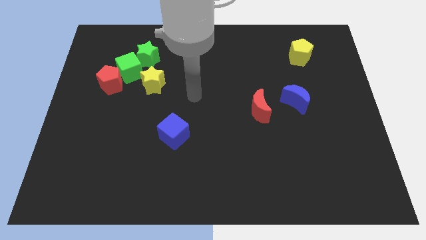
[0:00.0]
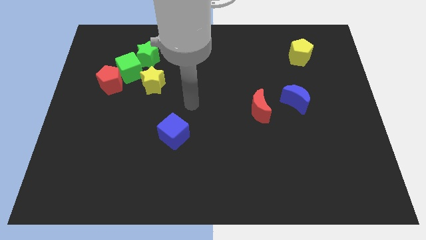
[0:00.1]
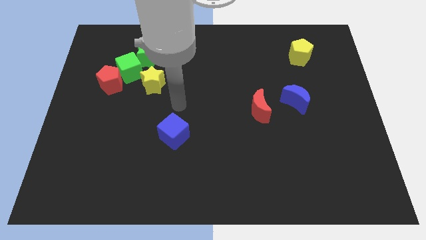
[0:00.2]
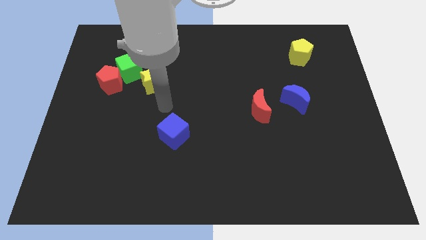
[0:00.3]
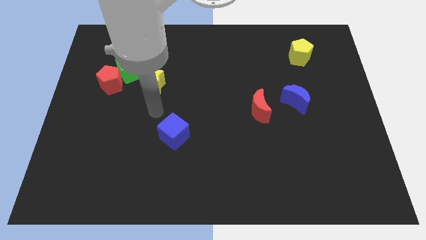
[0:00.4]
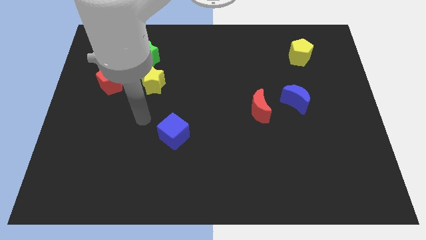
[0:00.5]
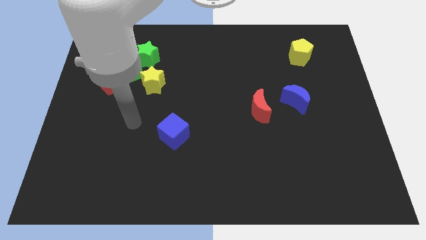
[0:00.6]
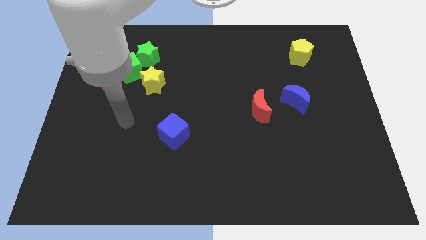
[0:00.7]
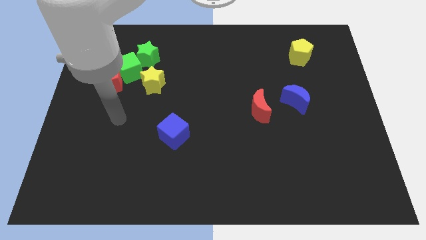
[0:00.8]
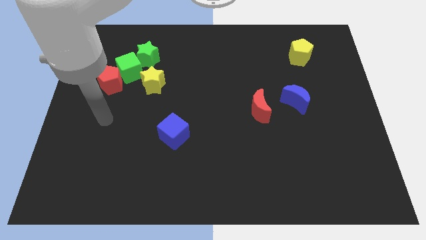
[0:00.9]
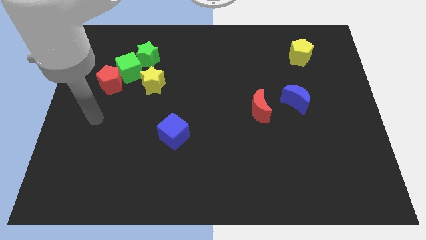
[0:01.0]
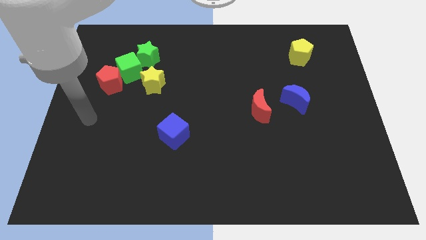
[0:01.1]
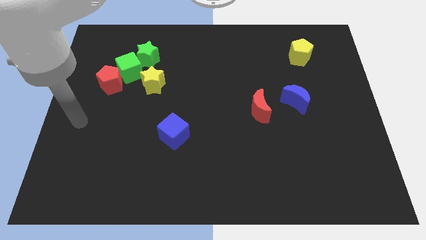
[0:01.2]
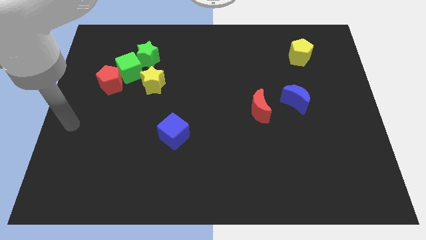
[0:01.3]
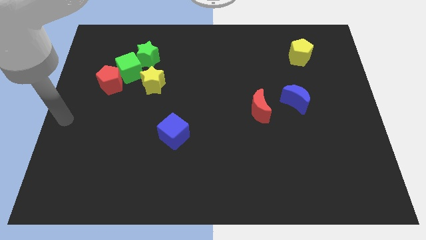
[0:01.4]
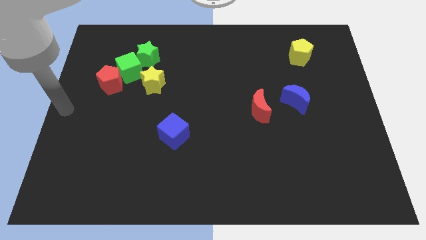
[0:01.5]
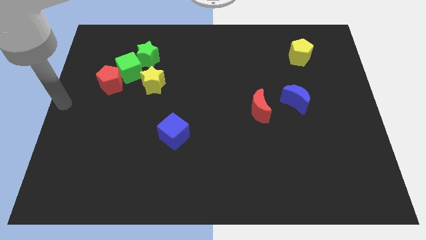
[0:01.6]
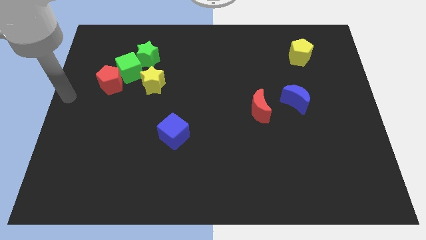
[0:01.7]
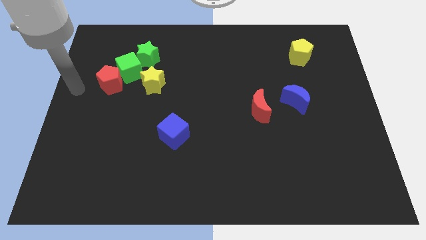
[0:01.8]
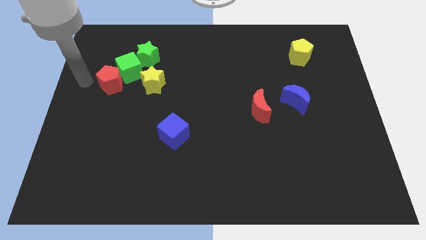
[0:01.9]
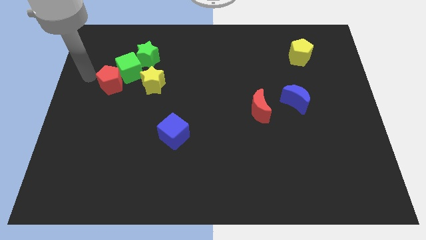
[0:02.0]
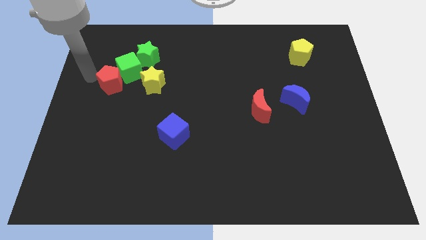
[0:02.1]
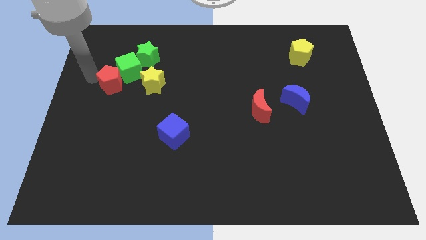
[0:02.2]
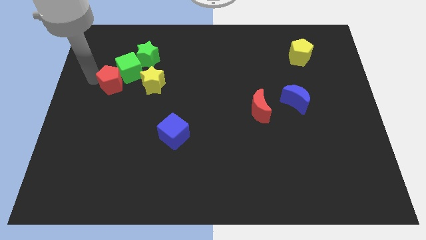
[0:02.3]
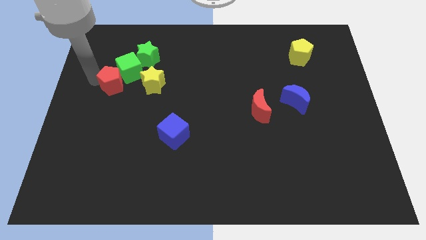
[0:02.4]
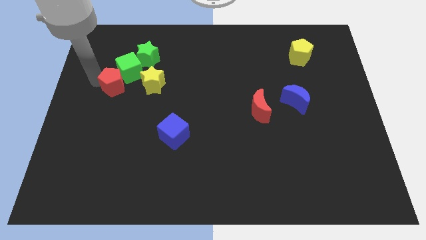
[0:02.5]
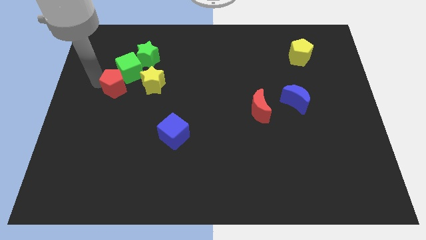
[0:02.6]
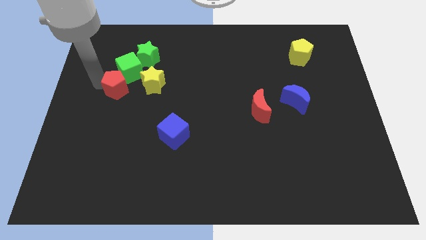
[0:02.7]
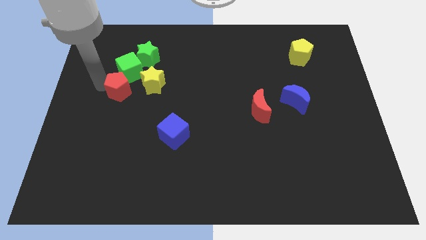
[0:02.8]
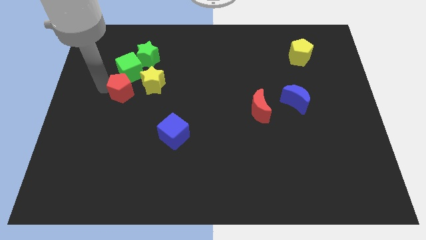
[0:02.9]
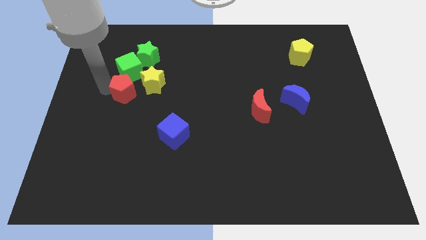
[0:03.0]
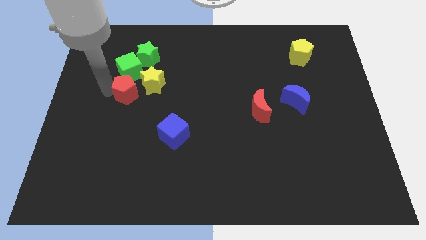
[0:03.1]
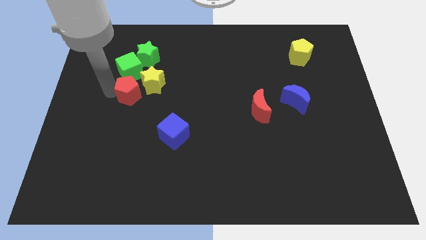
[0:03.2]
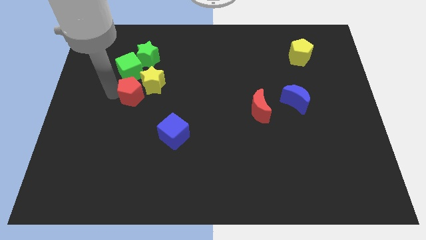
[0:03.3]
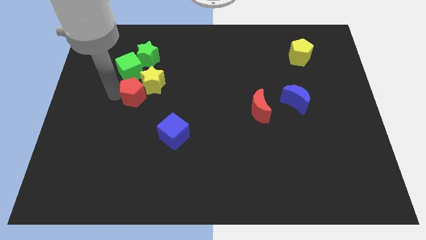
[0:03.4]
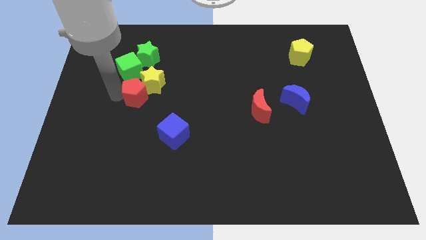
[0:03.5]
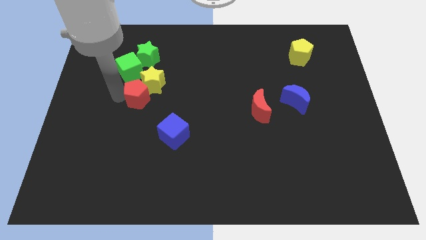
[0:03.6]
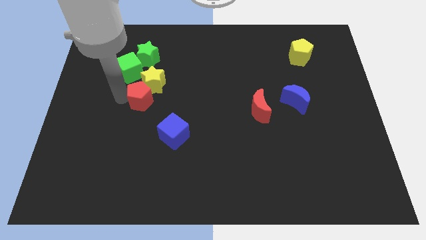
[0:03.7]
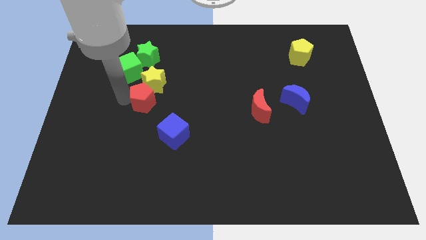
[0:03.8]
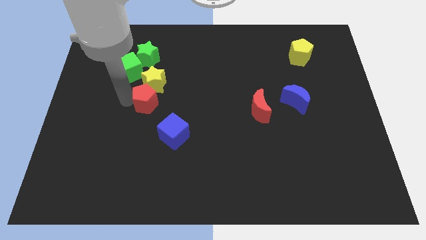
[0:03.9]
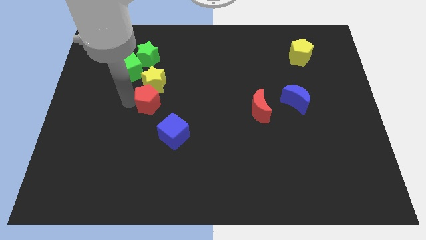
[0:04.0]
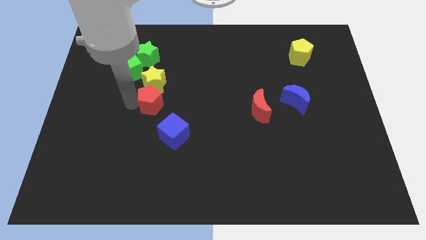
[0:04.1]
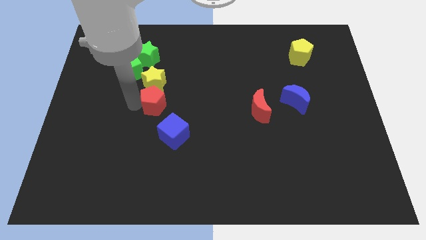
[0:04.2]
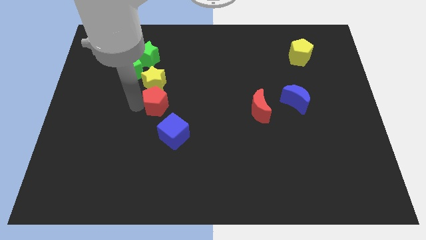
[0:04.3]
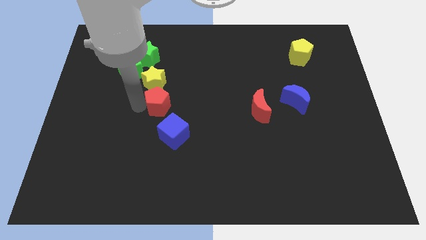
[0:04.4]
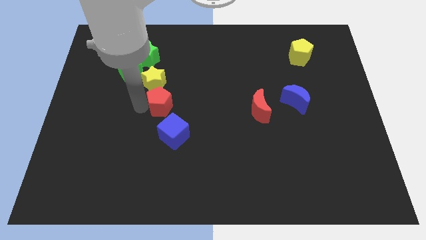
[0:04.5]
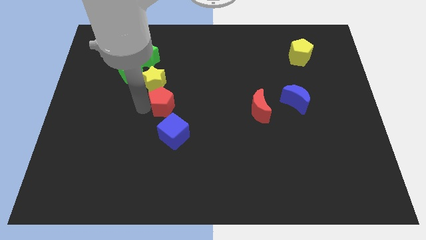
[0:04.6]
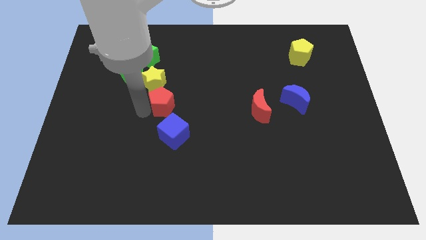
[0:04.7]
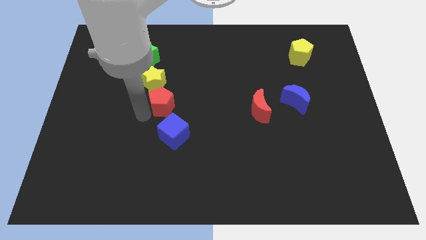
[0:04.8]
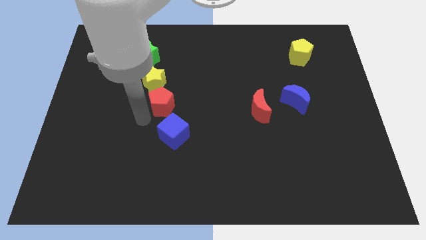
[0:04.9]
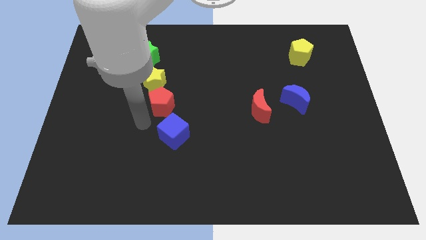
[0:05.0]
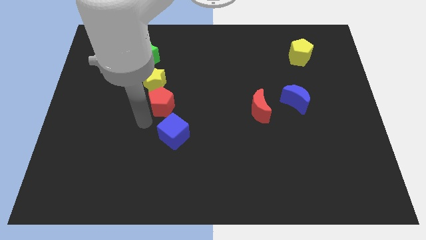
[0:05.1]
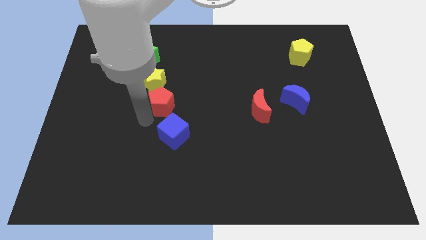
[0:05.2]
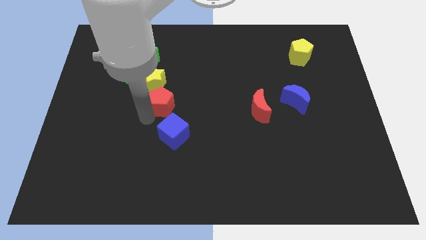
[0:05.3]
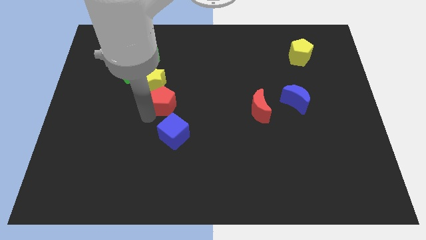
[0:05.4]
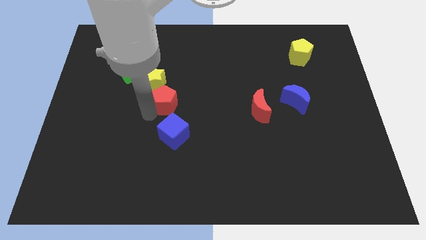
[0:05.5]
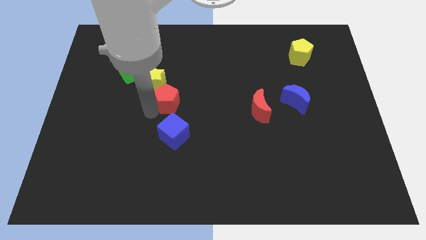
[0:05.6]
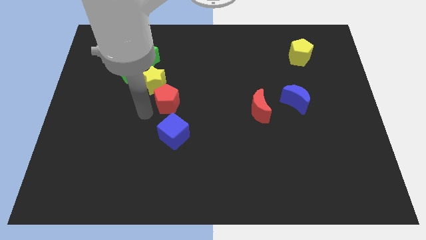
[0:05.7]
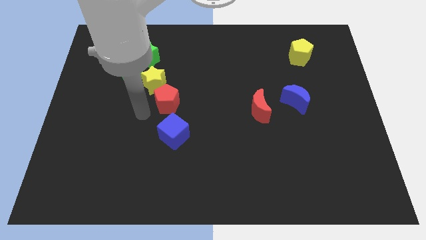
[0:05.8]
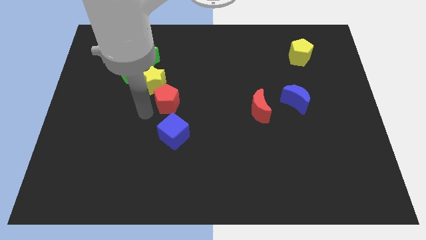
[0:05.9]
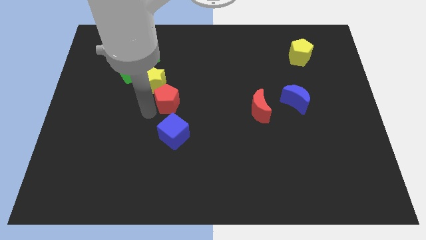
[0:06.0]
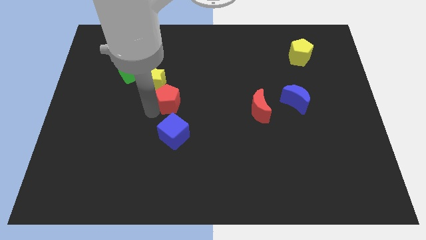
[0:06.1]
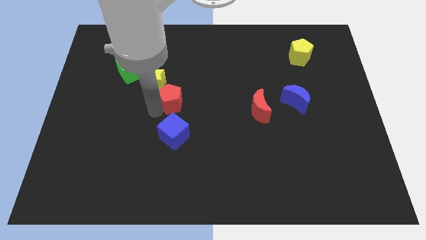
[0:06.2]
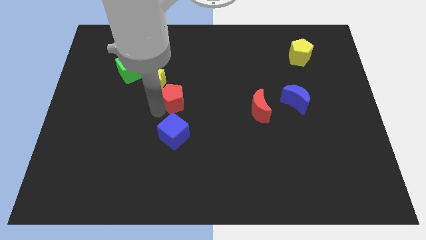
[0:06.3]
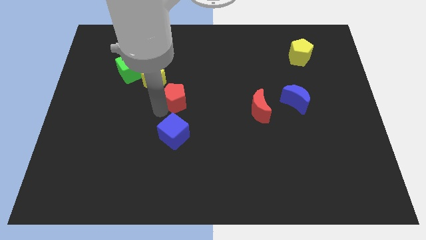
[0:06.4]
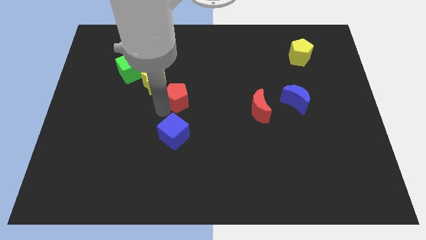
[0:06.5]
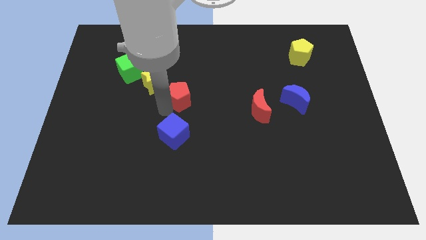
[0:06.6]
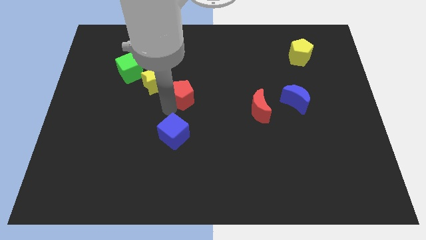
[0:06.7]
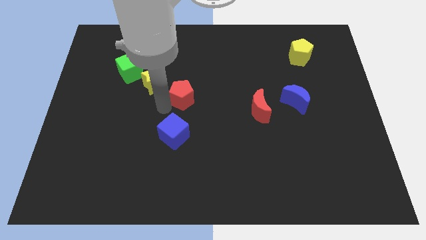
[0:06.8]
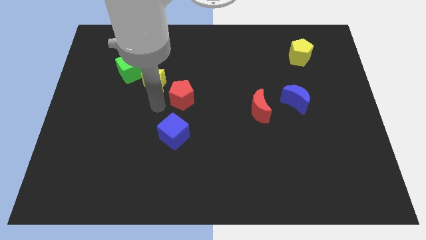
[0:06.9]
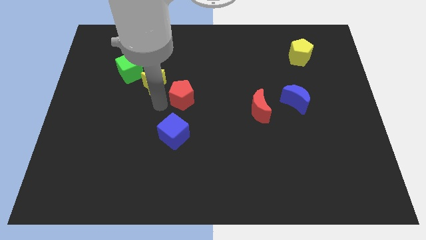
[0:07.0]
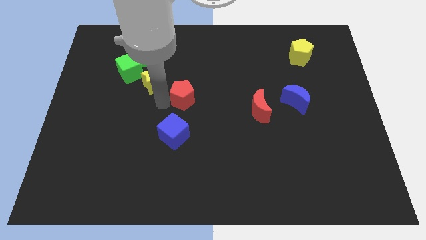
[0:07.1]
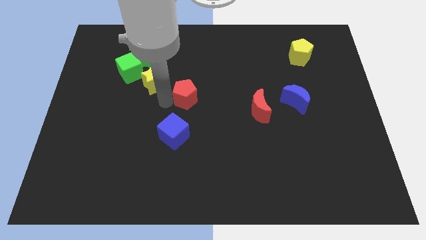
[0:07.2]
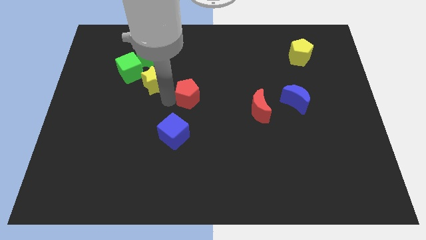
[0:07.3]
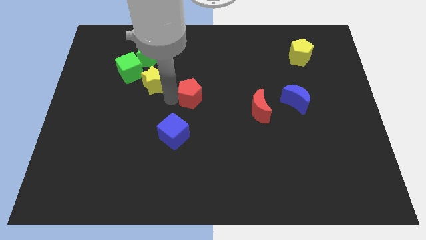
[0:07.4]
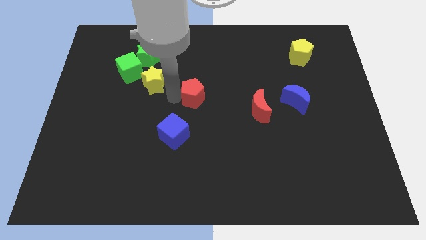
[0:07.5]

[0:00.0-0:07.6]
move the red pentagon to the right

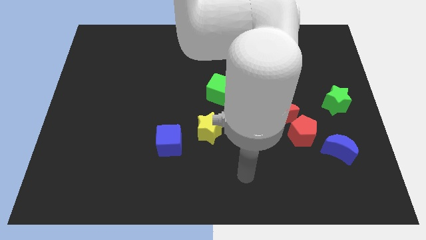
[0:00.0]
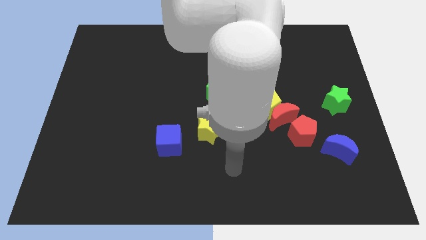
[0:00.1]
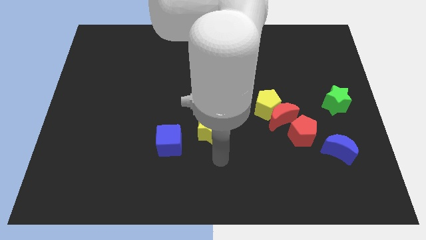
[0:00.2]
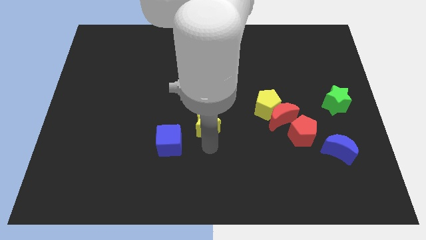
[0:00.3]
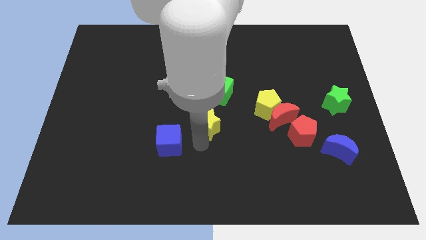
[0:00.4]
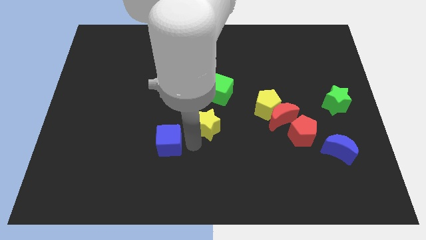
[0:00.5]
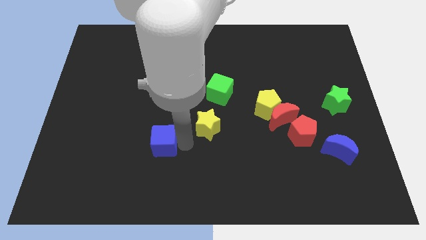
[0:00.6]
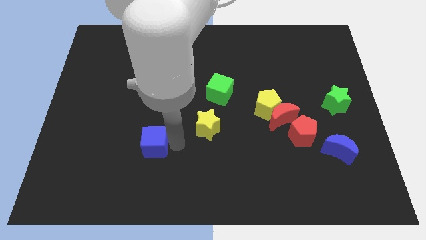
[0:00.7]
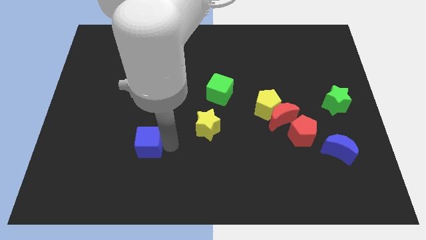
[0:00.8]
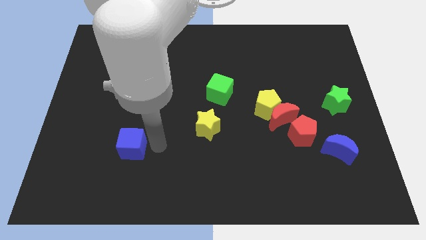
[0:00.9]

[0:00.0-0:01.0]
slide the blue cube left a little bit
